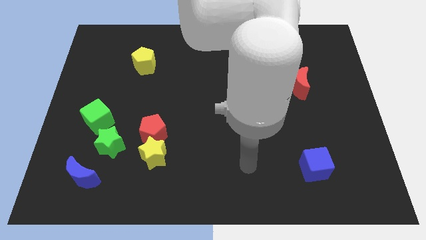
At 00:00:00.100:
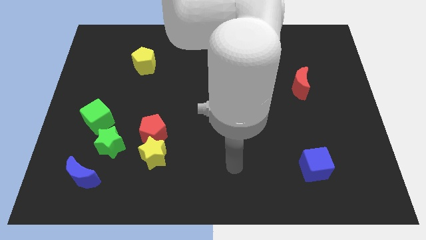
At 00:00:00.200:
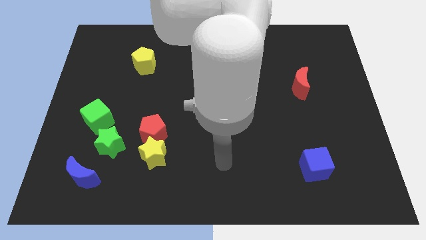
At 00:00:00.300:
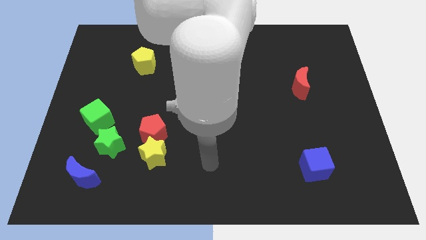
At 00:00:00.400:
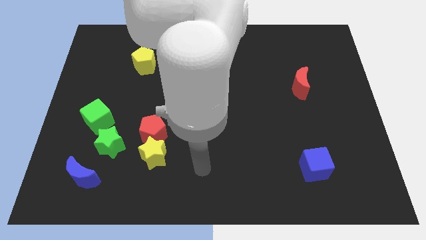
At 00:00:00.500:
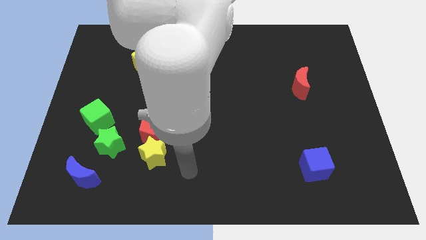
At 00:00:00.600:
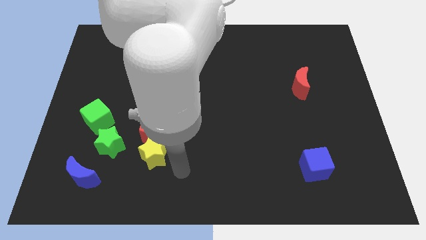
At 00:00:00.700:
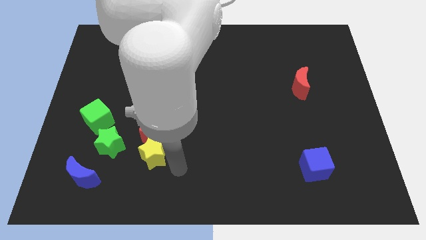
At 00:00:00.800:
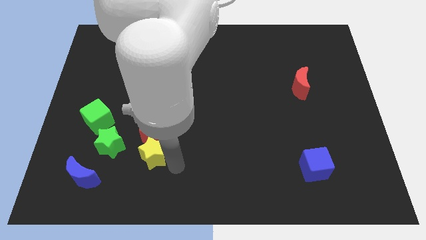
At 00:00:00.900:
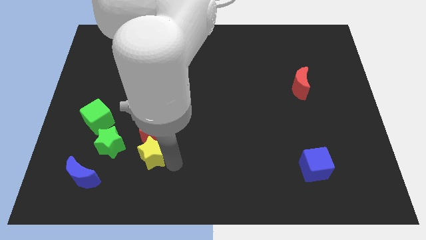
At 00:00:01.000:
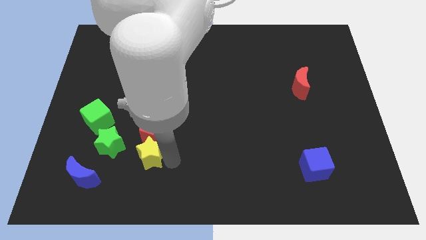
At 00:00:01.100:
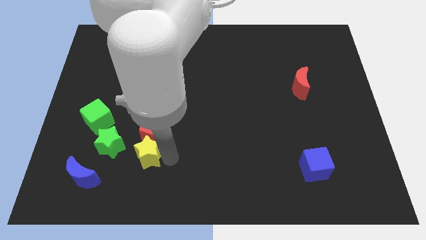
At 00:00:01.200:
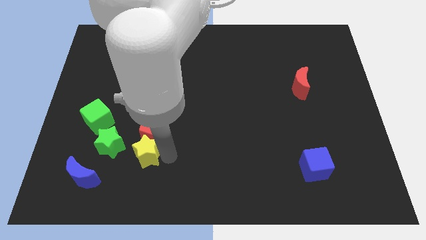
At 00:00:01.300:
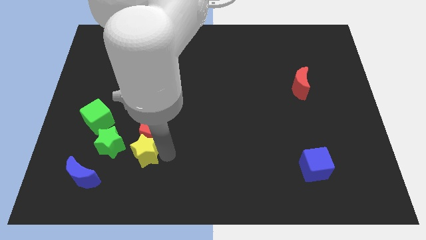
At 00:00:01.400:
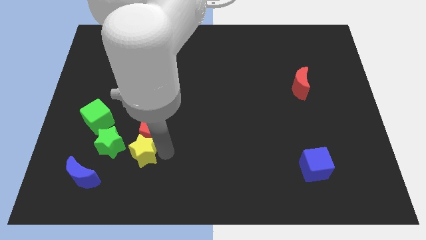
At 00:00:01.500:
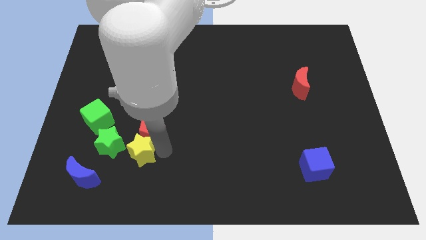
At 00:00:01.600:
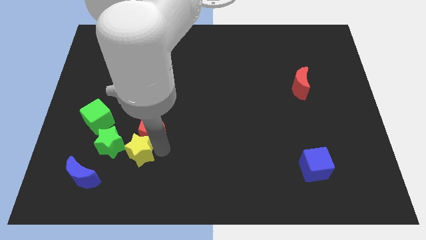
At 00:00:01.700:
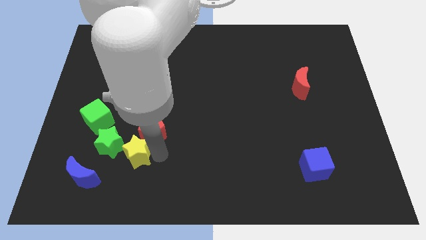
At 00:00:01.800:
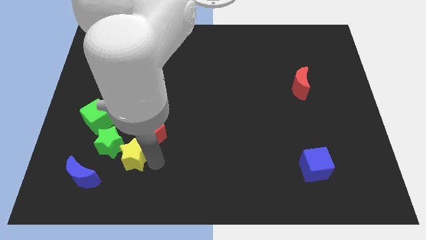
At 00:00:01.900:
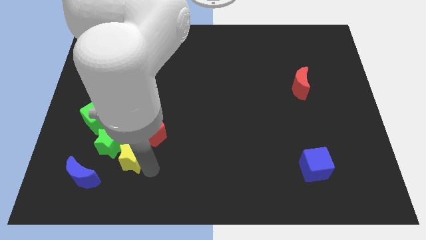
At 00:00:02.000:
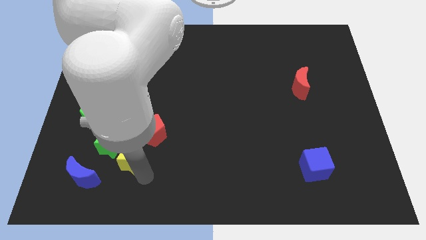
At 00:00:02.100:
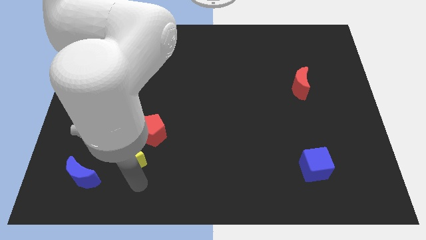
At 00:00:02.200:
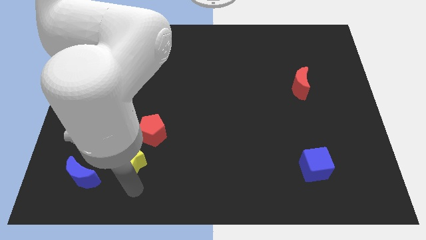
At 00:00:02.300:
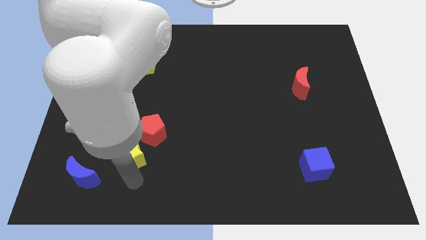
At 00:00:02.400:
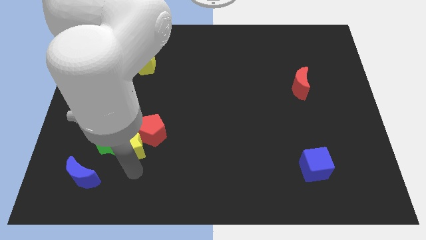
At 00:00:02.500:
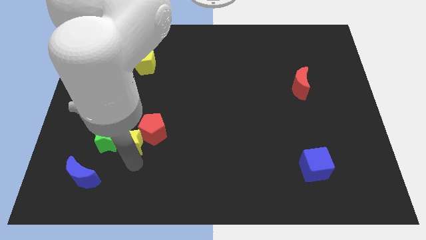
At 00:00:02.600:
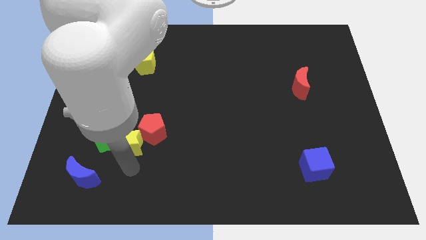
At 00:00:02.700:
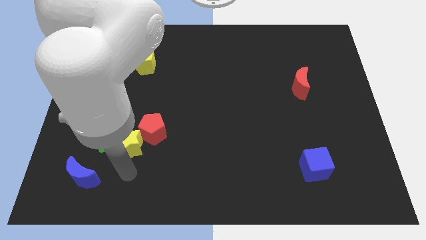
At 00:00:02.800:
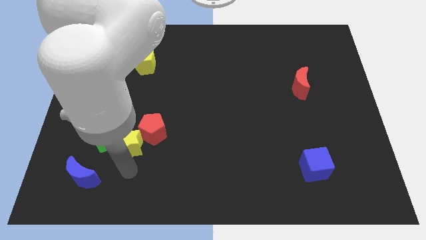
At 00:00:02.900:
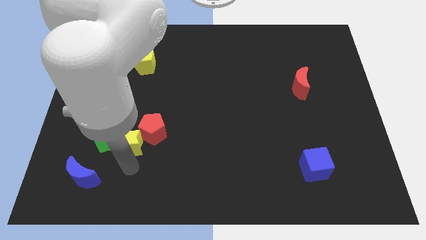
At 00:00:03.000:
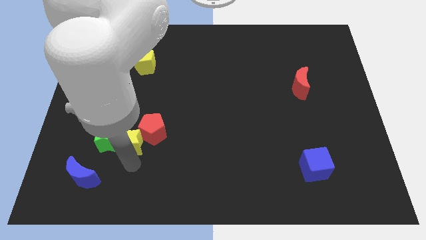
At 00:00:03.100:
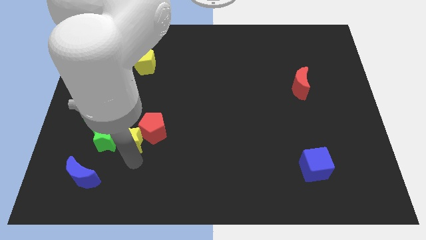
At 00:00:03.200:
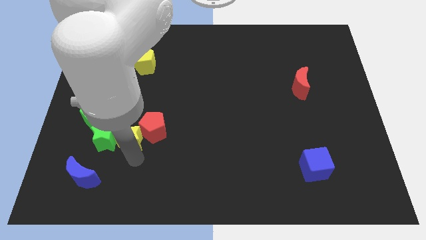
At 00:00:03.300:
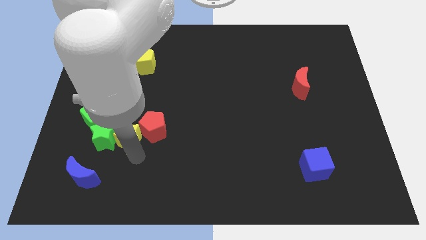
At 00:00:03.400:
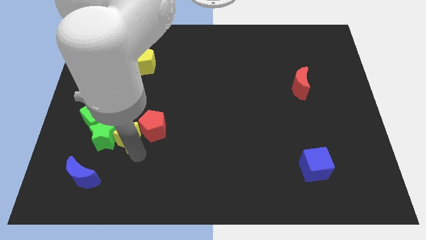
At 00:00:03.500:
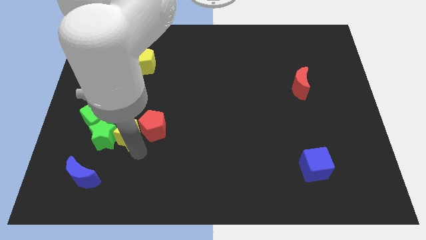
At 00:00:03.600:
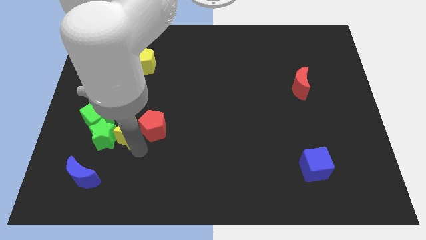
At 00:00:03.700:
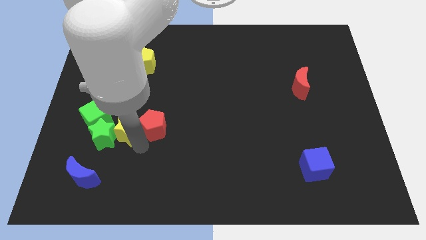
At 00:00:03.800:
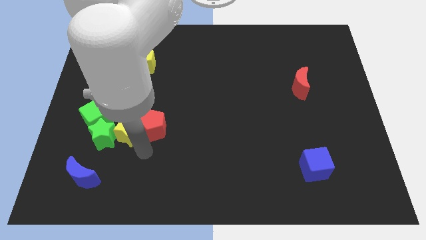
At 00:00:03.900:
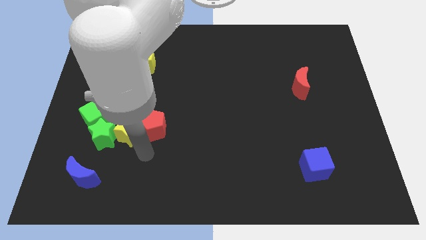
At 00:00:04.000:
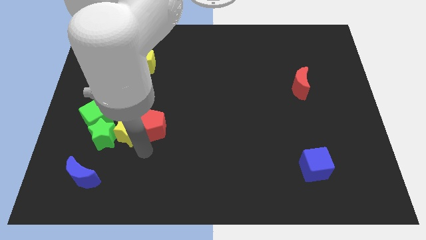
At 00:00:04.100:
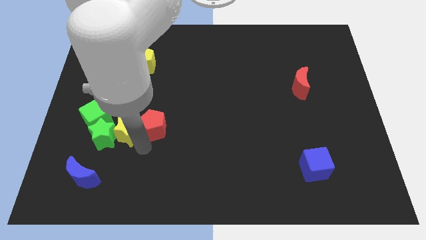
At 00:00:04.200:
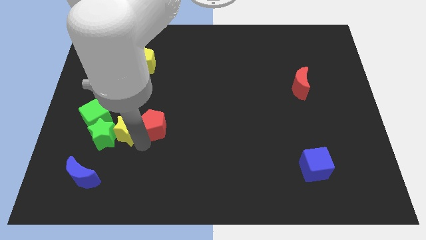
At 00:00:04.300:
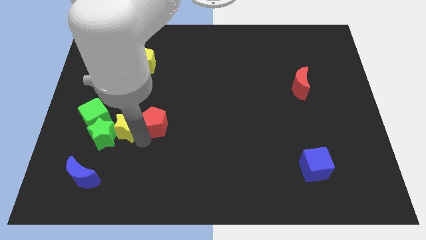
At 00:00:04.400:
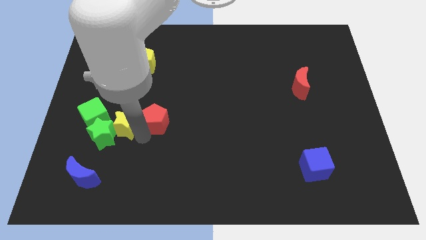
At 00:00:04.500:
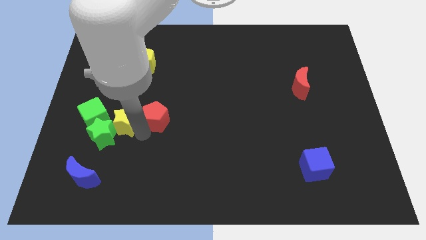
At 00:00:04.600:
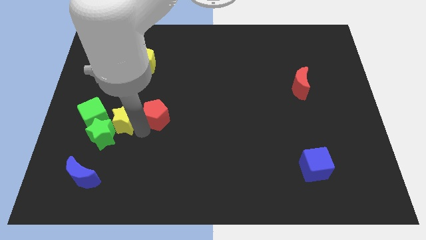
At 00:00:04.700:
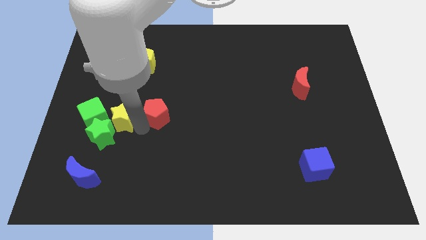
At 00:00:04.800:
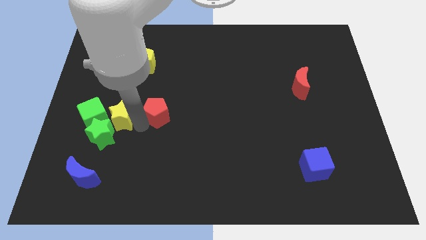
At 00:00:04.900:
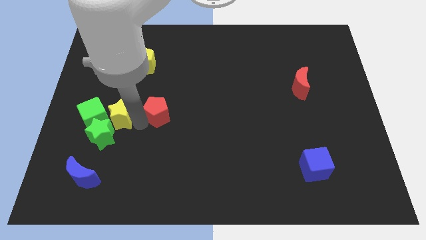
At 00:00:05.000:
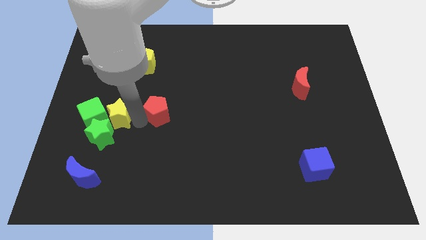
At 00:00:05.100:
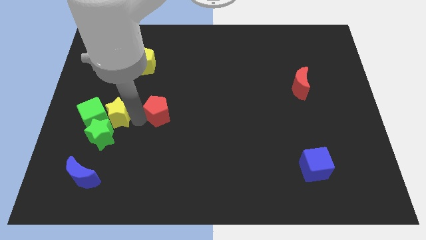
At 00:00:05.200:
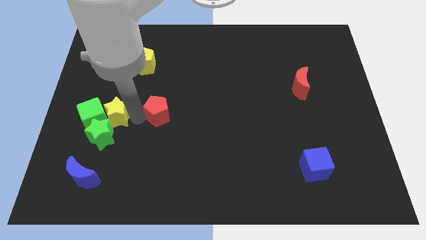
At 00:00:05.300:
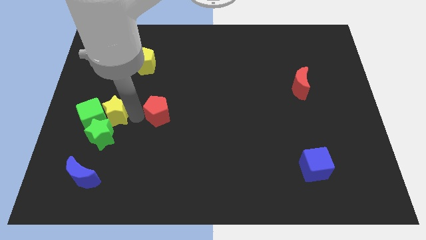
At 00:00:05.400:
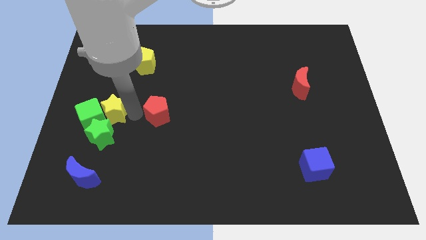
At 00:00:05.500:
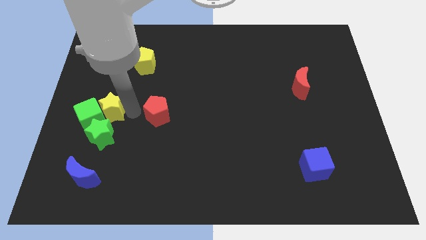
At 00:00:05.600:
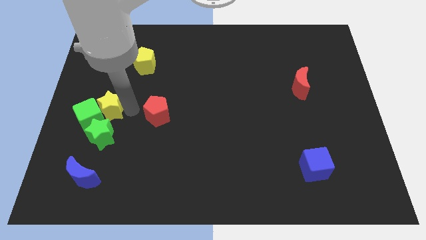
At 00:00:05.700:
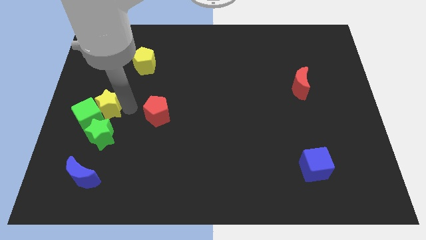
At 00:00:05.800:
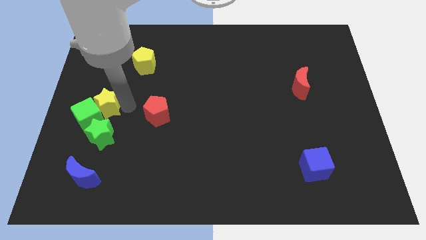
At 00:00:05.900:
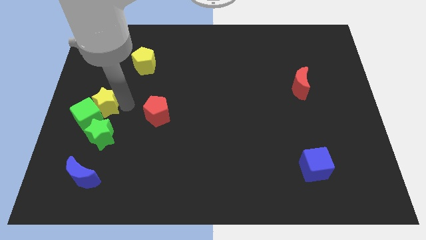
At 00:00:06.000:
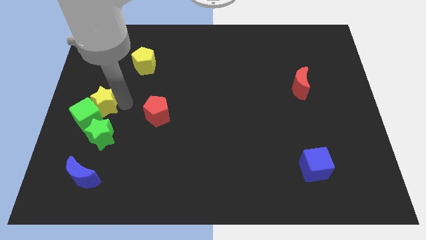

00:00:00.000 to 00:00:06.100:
push the yellow star to the center left
